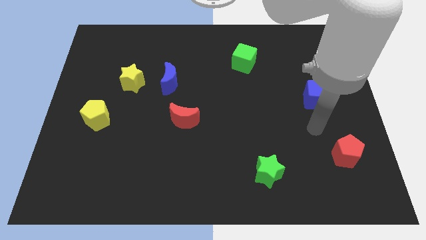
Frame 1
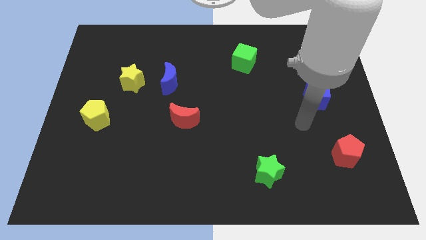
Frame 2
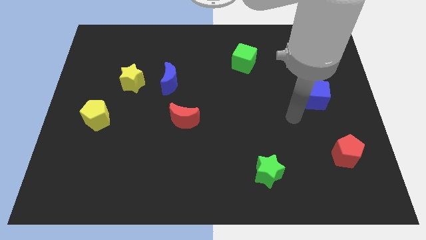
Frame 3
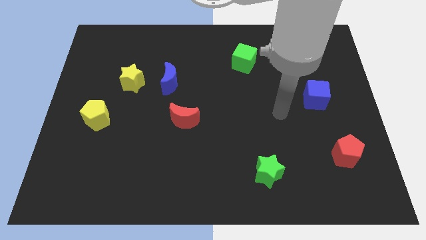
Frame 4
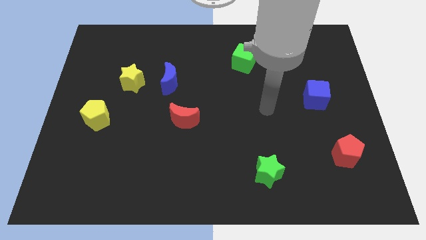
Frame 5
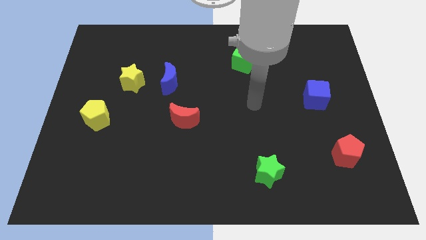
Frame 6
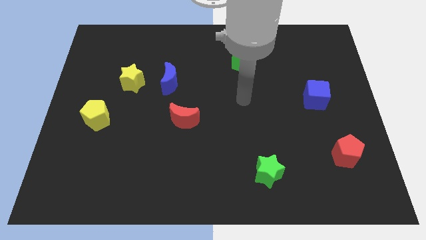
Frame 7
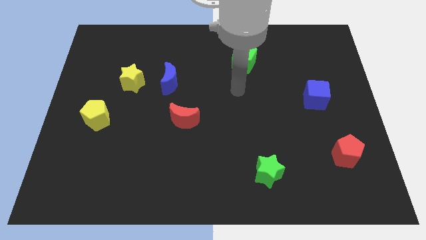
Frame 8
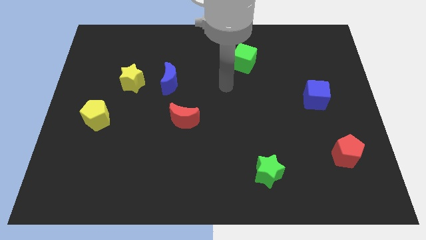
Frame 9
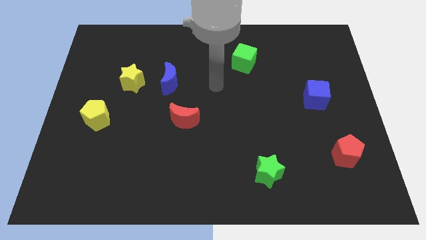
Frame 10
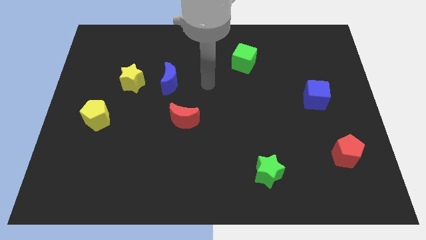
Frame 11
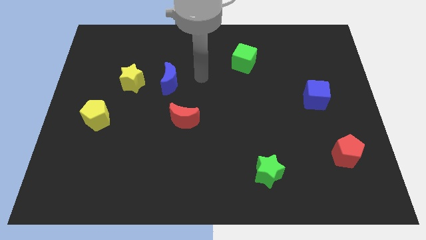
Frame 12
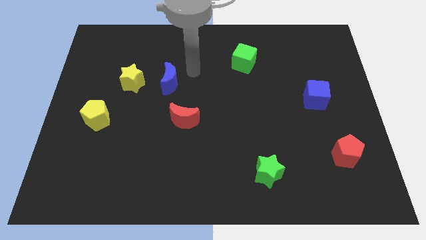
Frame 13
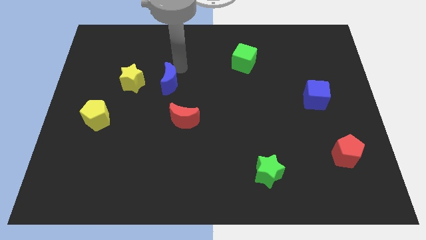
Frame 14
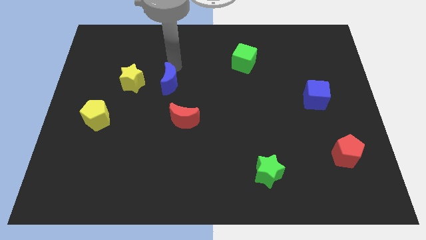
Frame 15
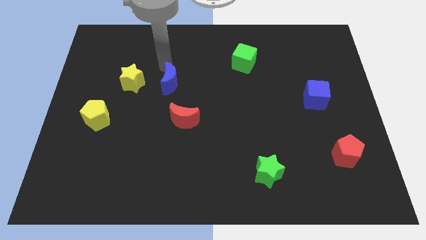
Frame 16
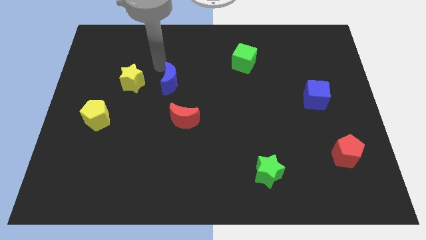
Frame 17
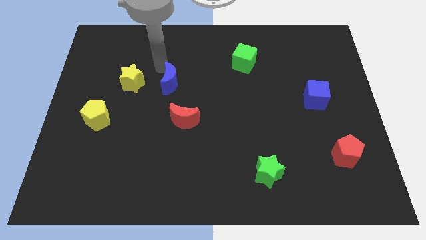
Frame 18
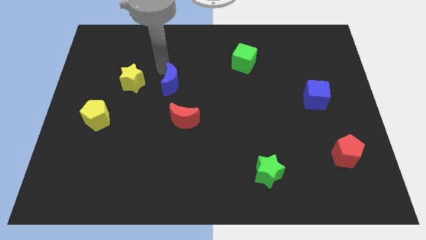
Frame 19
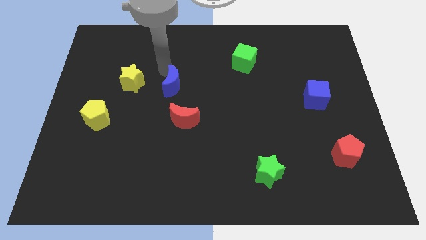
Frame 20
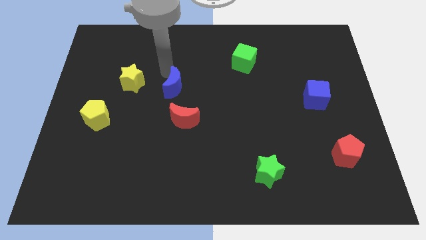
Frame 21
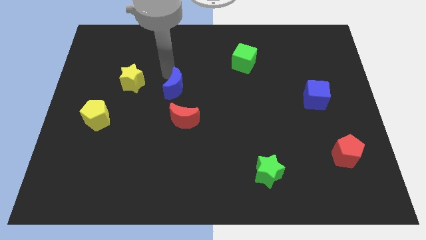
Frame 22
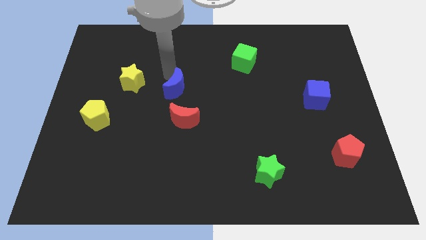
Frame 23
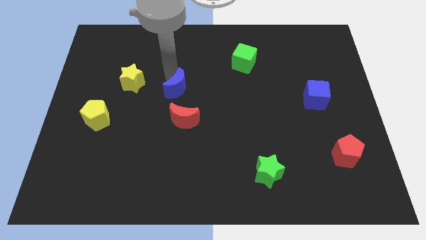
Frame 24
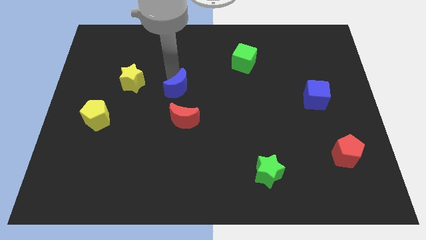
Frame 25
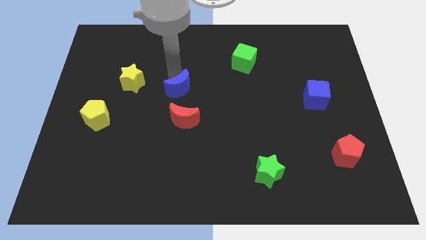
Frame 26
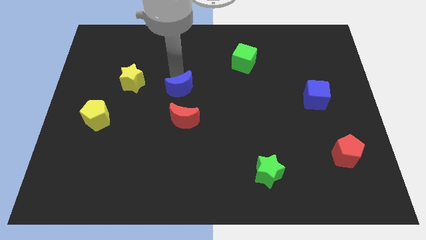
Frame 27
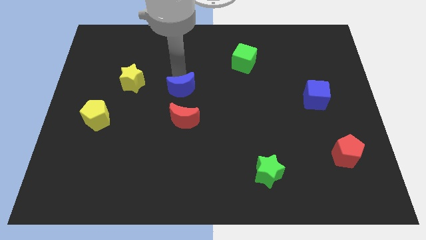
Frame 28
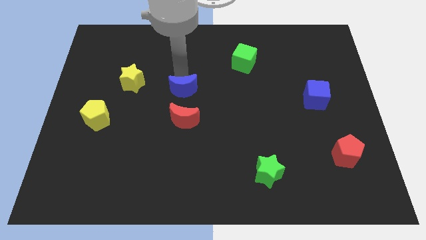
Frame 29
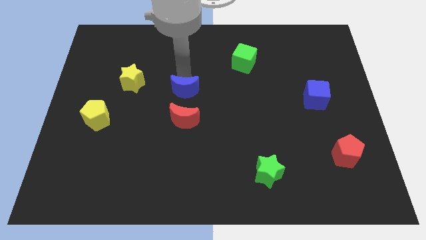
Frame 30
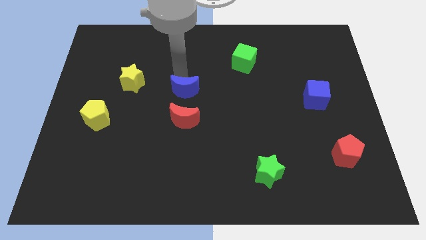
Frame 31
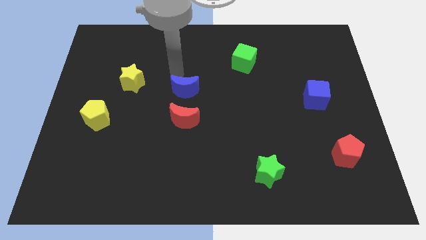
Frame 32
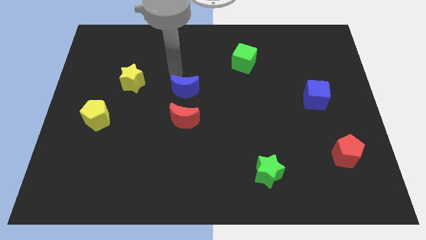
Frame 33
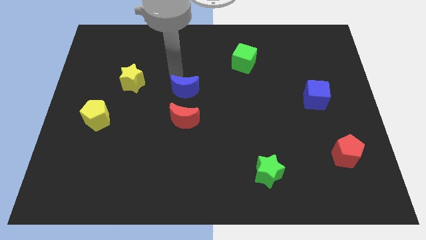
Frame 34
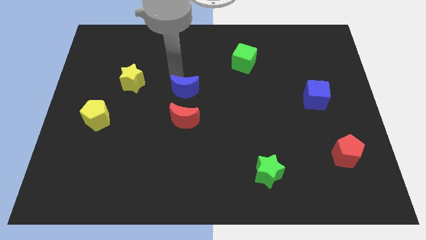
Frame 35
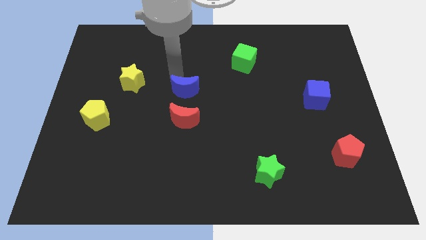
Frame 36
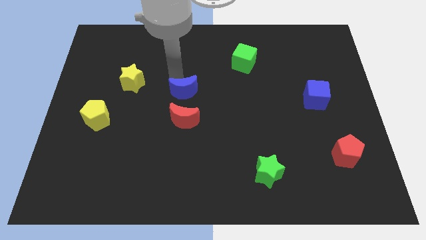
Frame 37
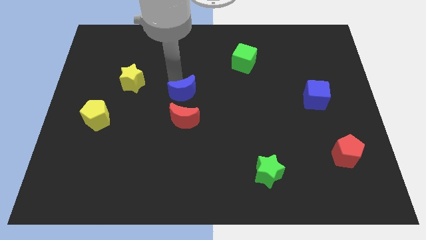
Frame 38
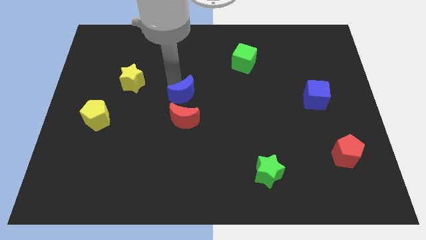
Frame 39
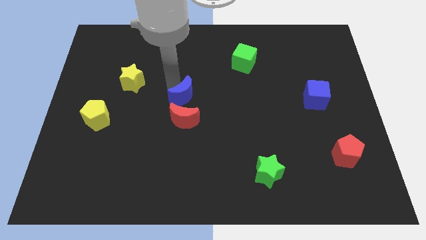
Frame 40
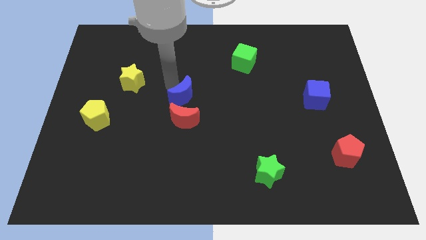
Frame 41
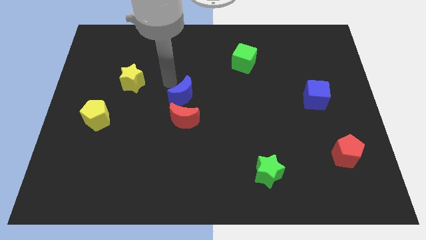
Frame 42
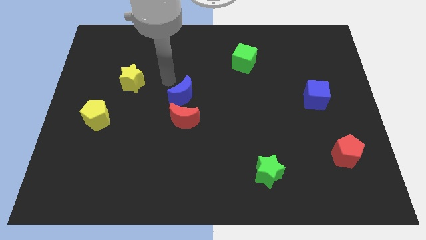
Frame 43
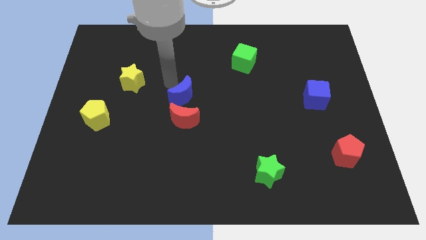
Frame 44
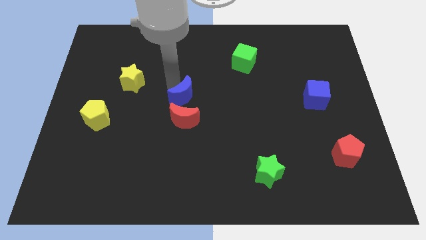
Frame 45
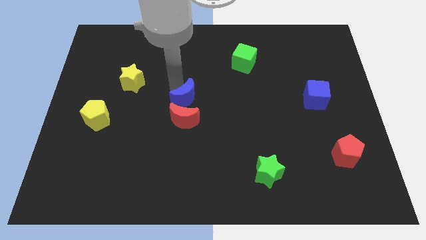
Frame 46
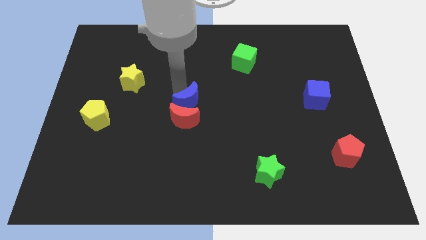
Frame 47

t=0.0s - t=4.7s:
move the blue moon downwards and to the right a little

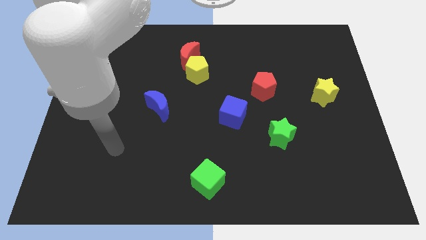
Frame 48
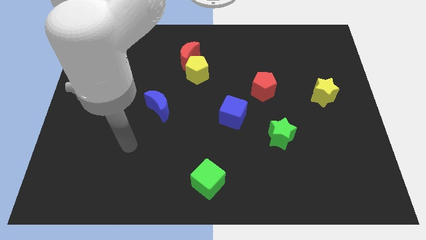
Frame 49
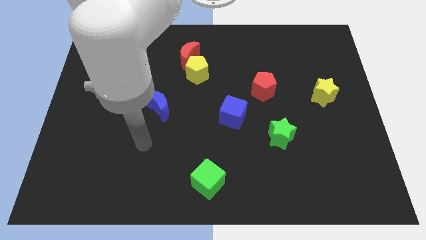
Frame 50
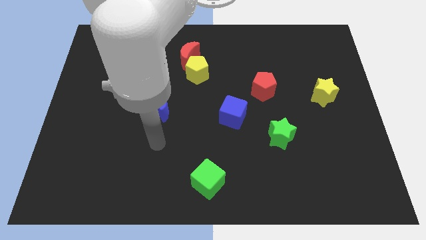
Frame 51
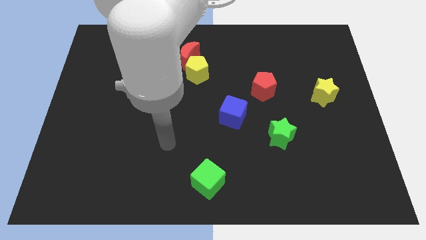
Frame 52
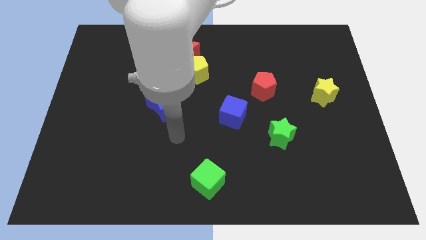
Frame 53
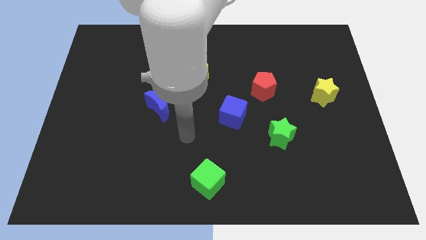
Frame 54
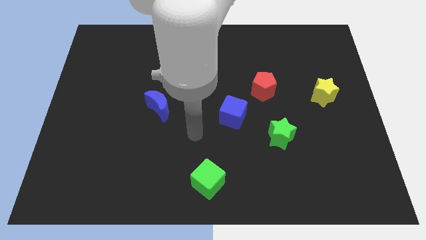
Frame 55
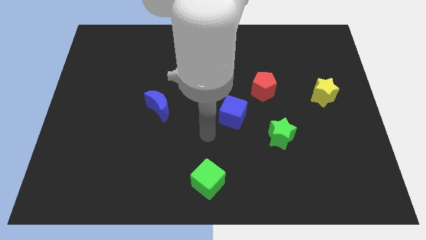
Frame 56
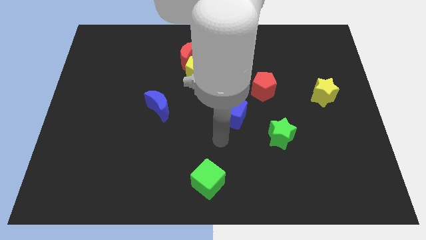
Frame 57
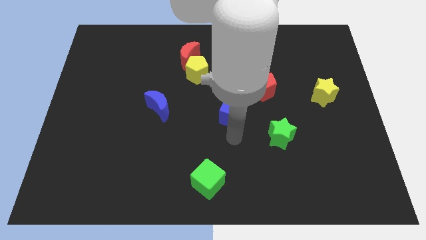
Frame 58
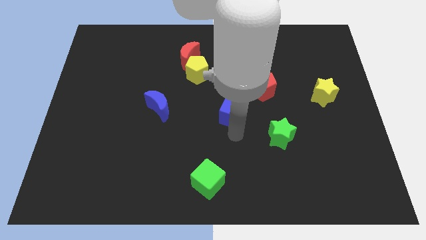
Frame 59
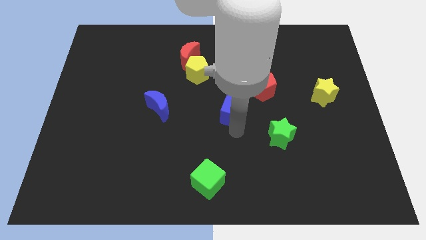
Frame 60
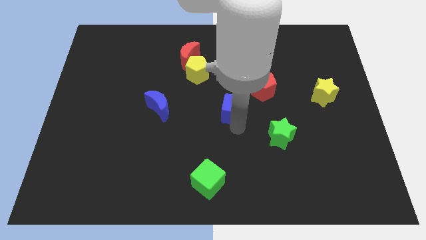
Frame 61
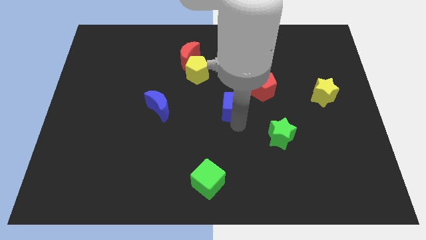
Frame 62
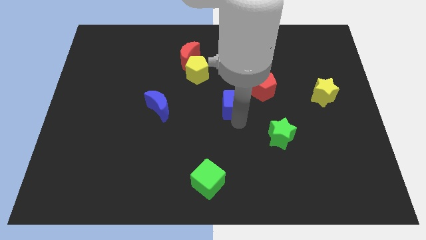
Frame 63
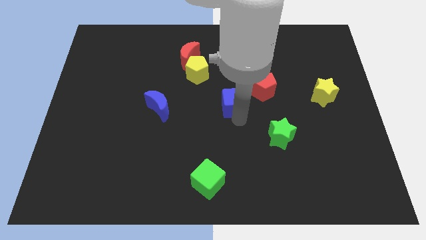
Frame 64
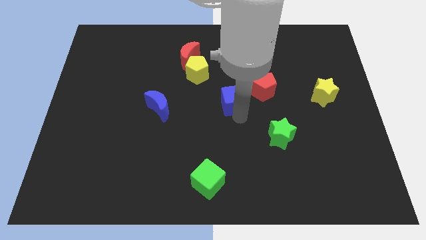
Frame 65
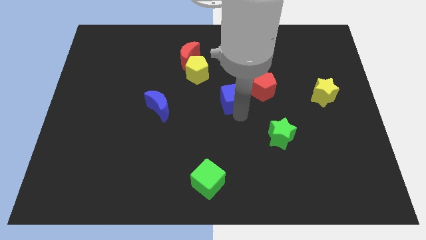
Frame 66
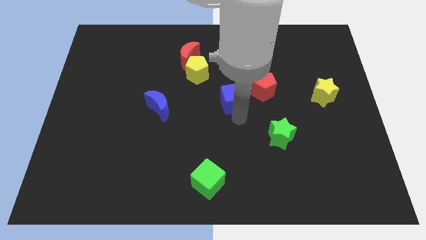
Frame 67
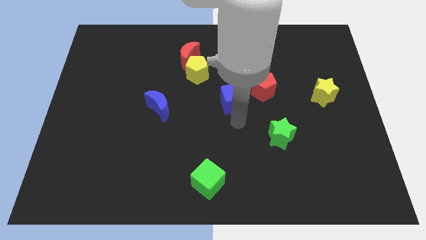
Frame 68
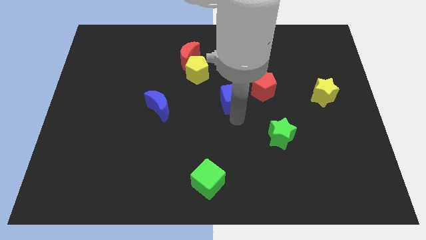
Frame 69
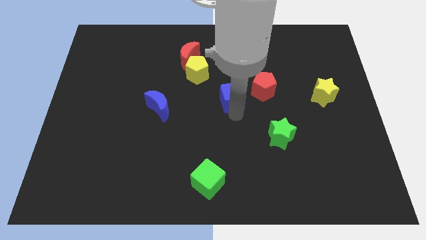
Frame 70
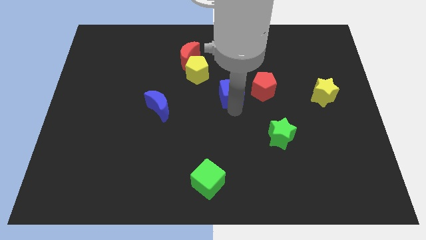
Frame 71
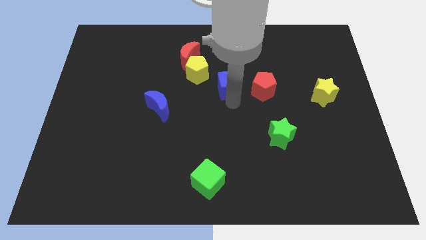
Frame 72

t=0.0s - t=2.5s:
push the blue cube upwards a little bit

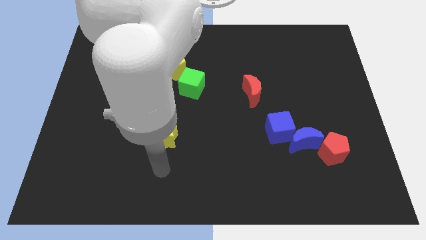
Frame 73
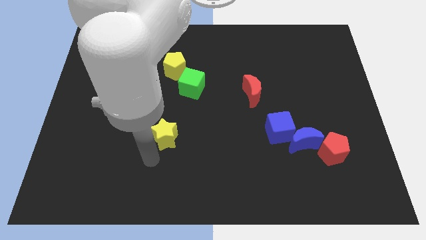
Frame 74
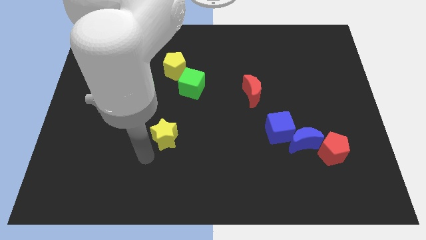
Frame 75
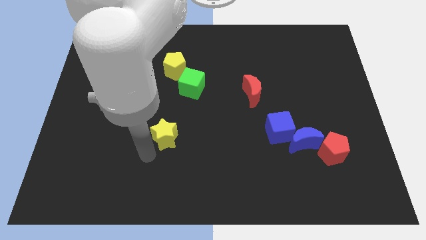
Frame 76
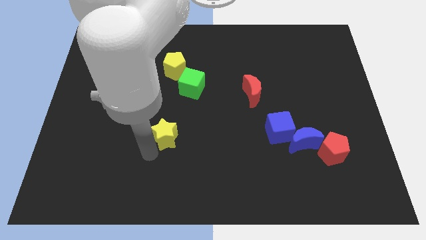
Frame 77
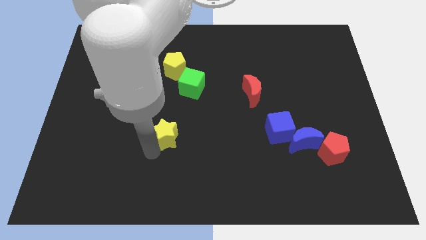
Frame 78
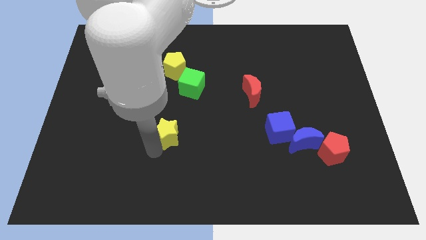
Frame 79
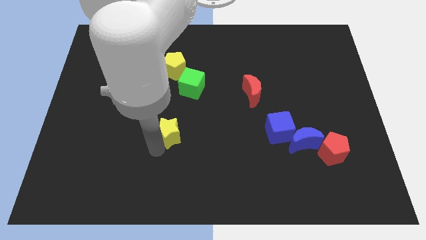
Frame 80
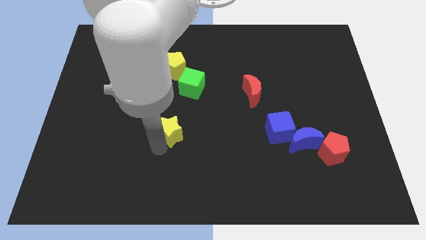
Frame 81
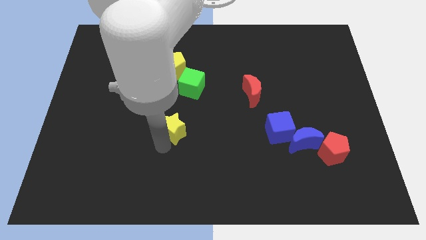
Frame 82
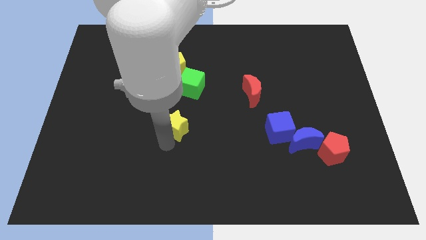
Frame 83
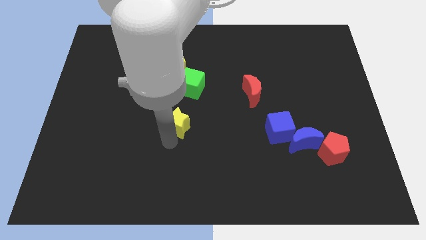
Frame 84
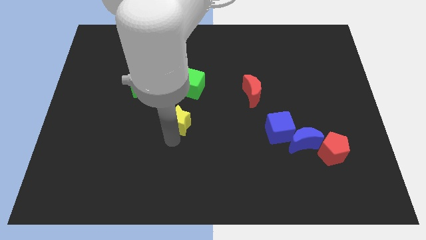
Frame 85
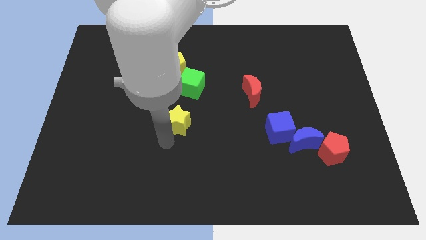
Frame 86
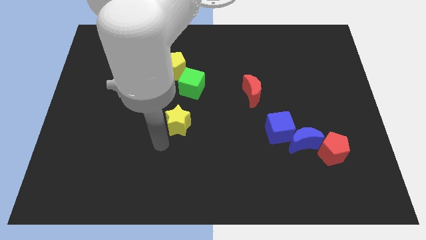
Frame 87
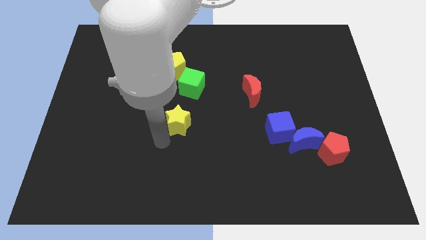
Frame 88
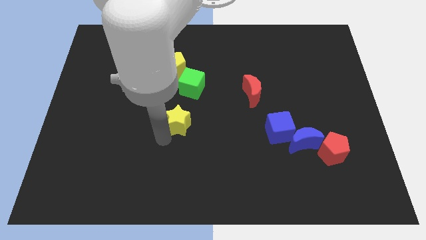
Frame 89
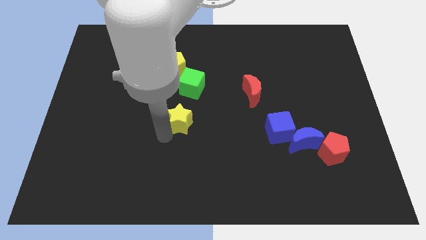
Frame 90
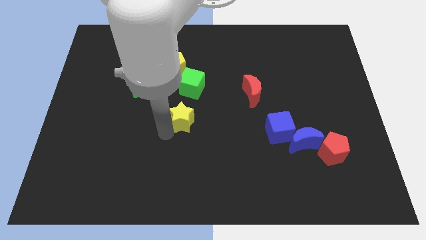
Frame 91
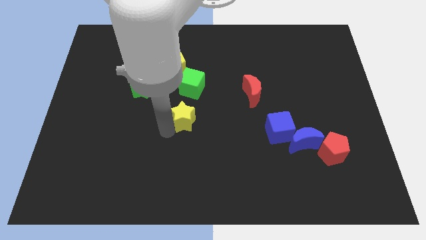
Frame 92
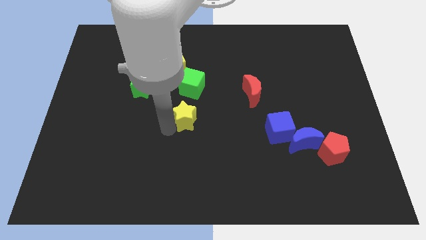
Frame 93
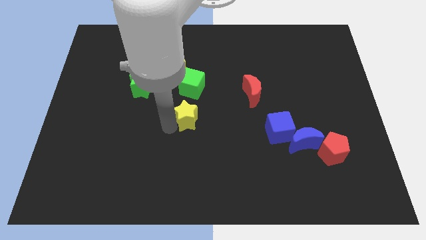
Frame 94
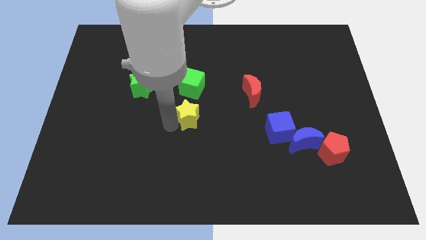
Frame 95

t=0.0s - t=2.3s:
slide the yellow star diagonally upwards and right slightly
